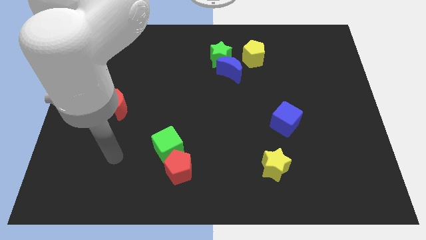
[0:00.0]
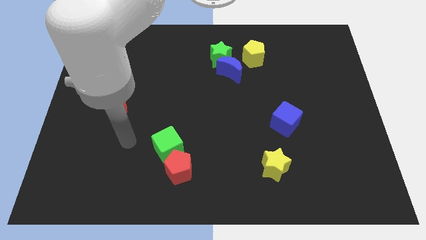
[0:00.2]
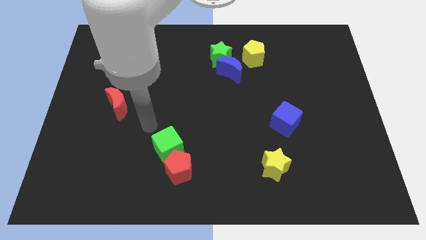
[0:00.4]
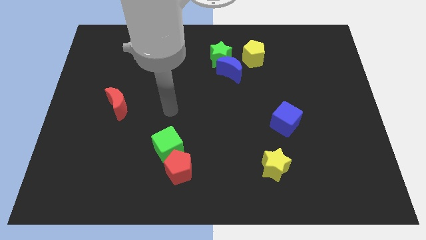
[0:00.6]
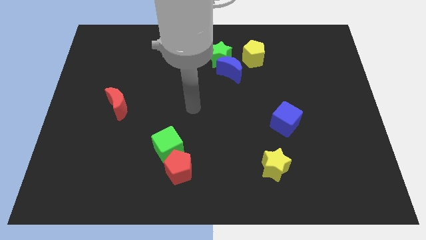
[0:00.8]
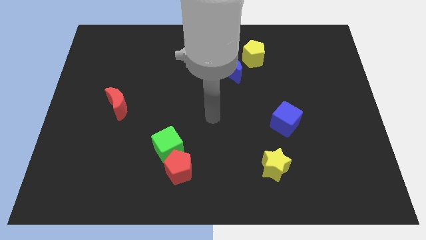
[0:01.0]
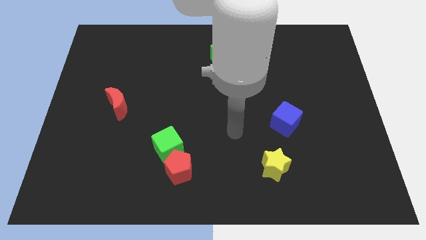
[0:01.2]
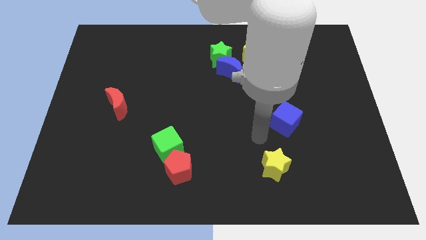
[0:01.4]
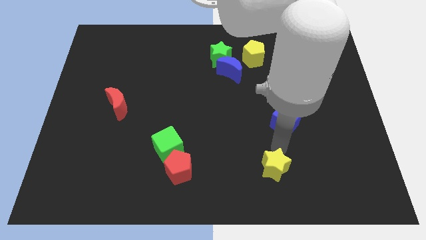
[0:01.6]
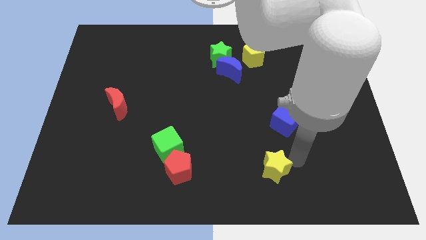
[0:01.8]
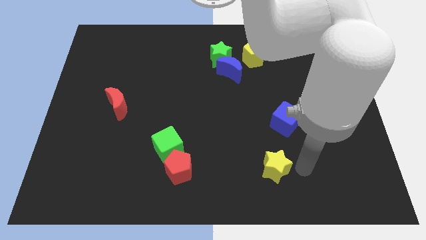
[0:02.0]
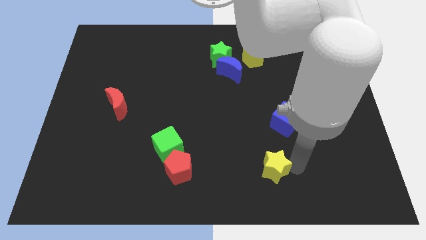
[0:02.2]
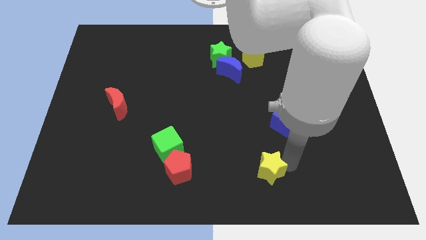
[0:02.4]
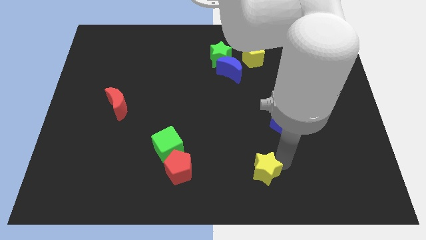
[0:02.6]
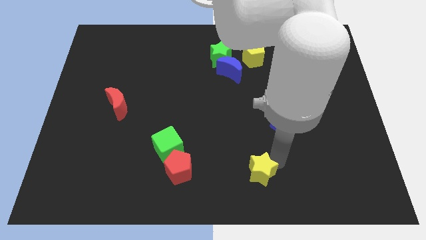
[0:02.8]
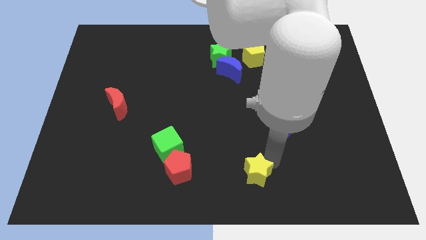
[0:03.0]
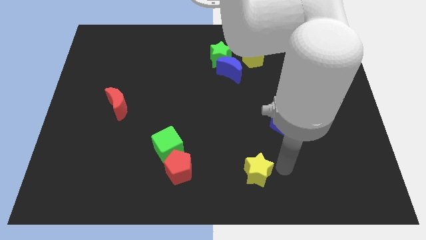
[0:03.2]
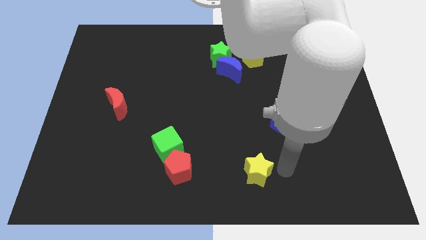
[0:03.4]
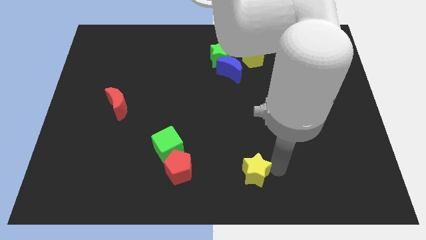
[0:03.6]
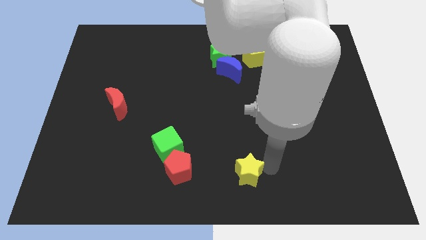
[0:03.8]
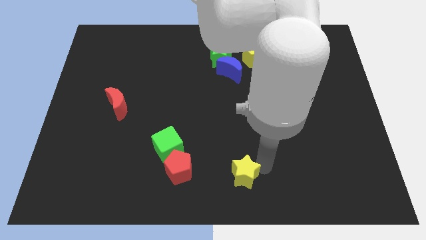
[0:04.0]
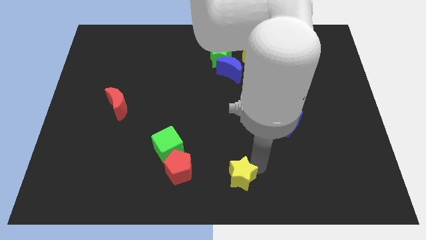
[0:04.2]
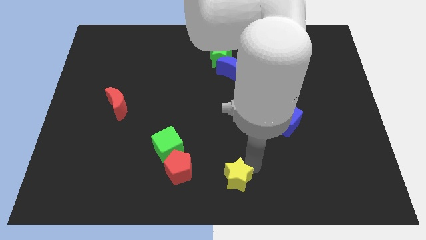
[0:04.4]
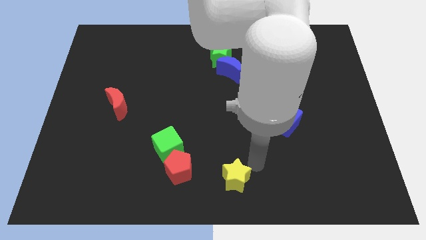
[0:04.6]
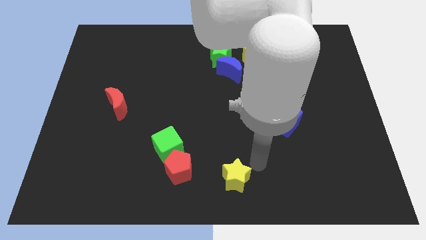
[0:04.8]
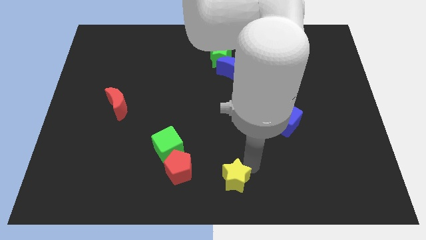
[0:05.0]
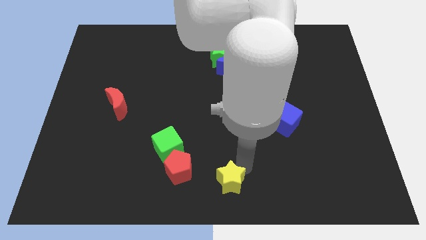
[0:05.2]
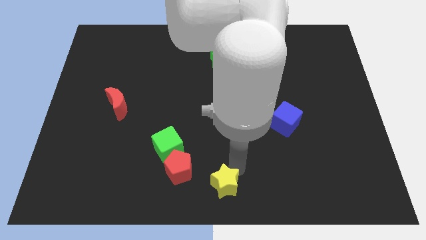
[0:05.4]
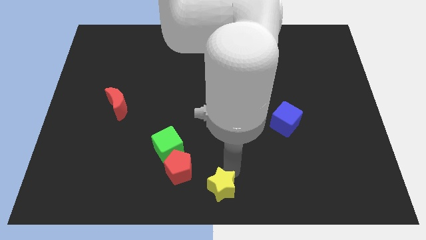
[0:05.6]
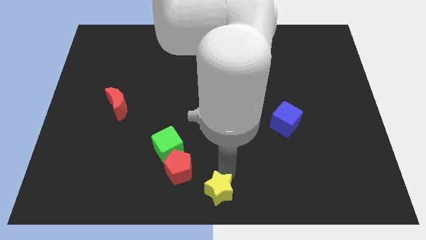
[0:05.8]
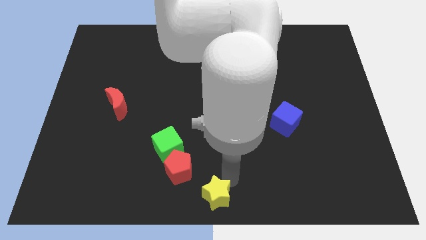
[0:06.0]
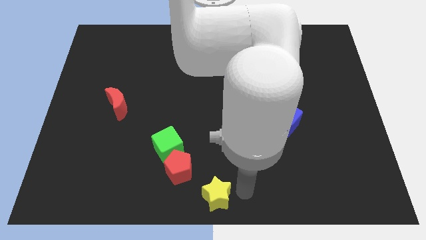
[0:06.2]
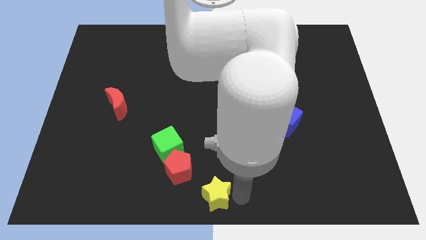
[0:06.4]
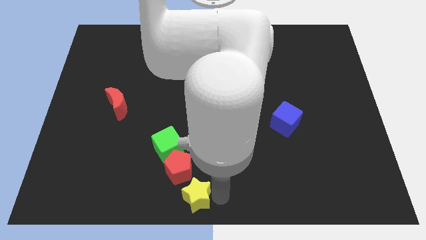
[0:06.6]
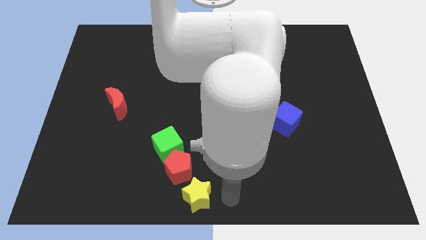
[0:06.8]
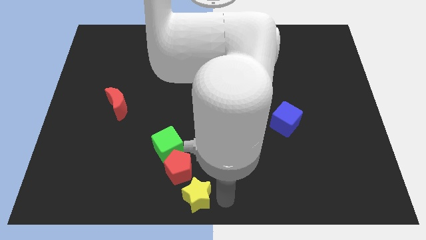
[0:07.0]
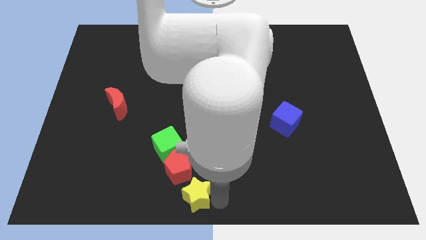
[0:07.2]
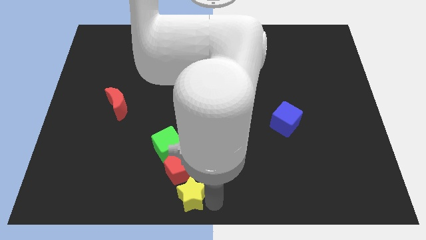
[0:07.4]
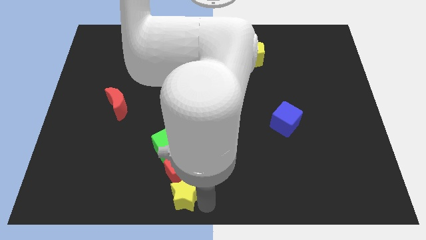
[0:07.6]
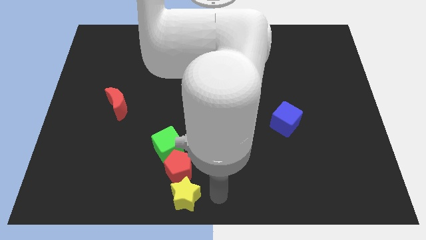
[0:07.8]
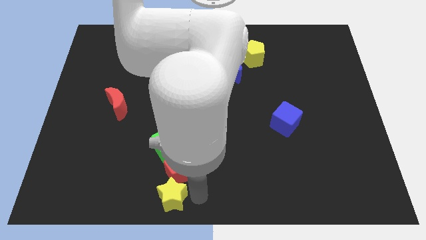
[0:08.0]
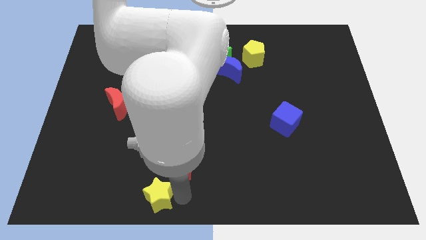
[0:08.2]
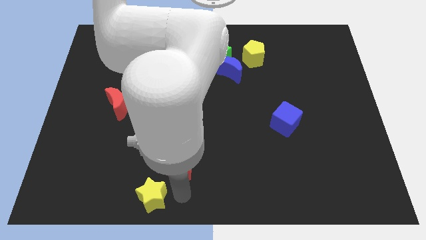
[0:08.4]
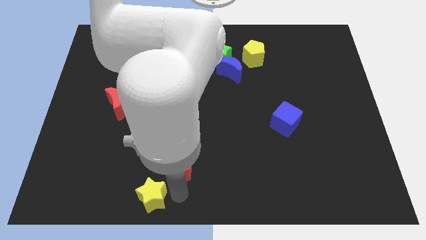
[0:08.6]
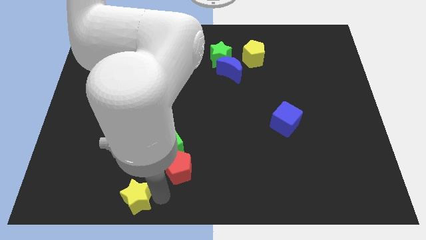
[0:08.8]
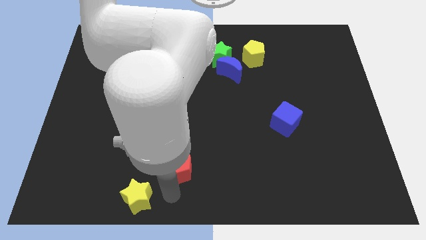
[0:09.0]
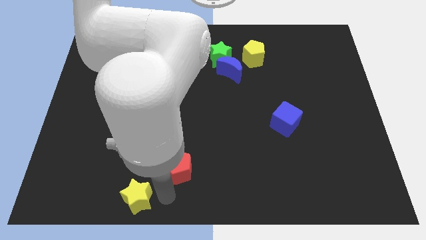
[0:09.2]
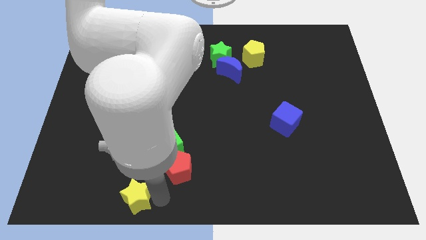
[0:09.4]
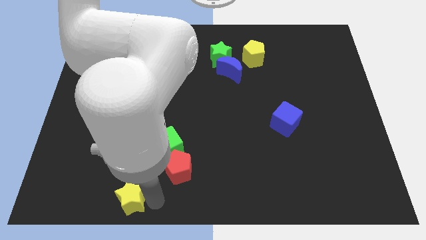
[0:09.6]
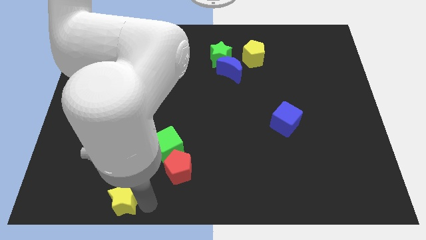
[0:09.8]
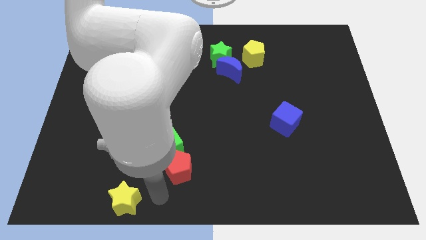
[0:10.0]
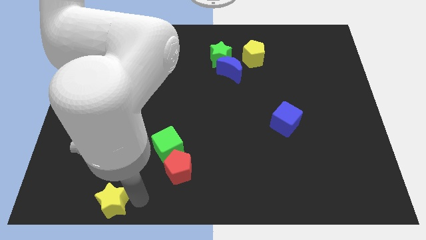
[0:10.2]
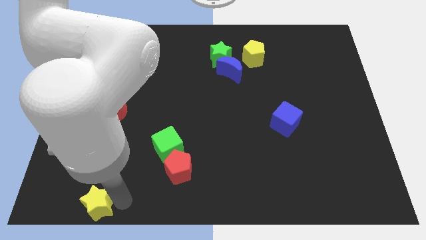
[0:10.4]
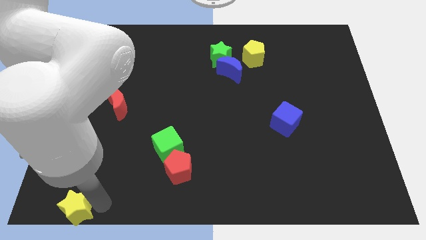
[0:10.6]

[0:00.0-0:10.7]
slide the yellow star to the lower left corner
